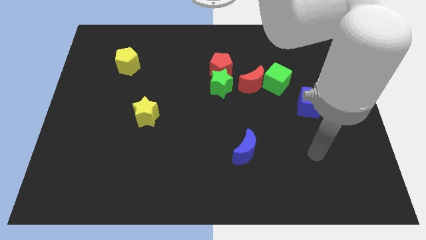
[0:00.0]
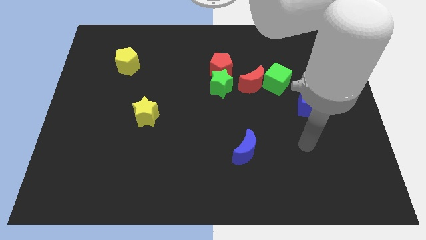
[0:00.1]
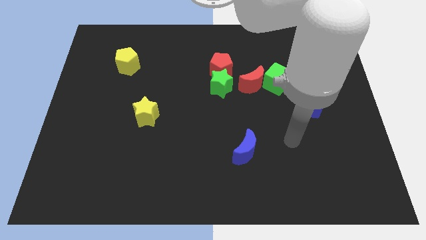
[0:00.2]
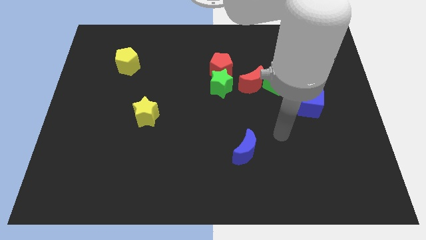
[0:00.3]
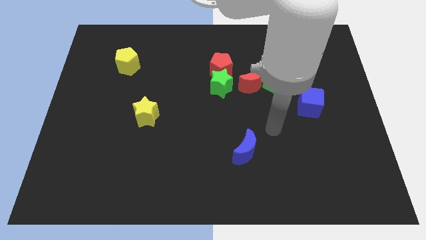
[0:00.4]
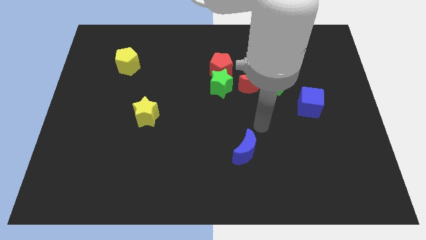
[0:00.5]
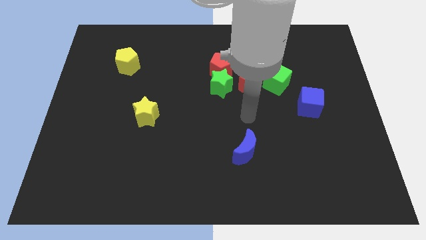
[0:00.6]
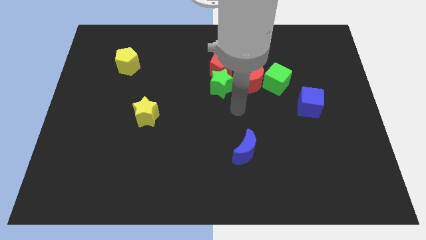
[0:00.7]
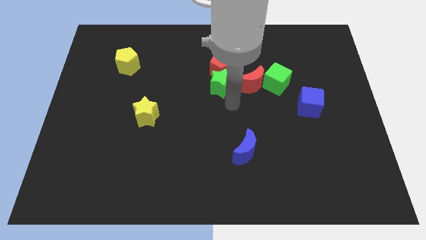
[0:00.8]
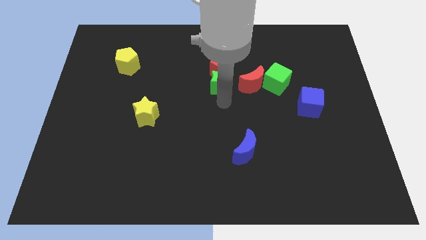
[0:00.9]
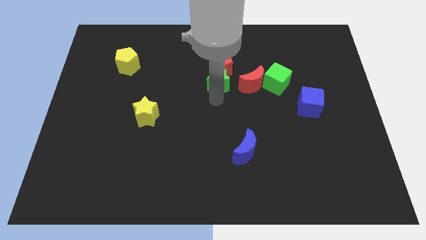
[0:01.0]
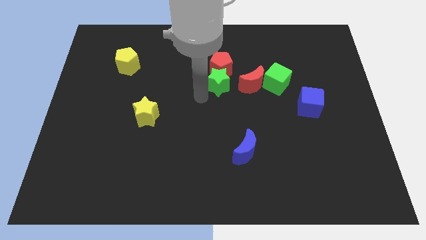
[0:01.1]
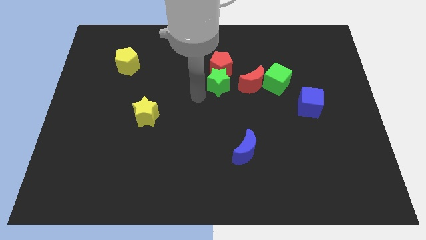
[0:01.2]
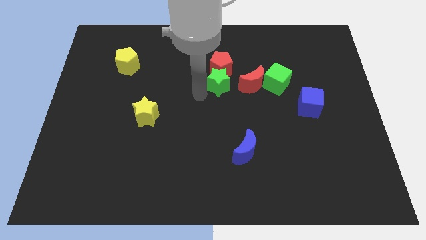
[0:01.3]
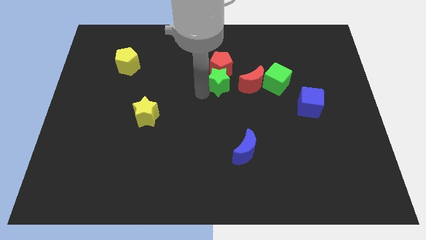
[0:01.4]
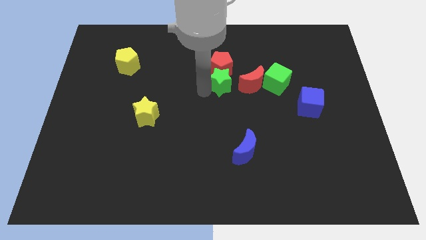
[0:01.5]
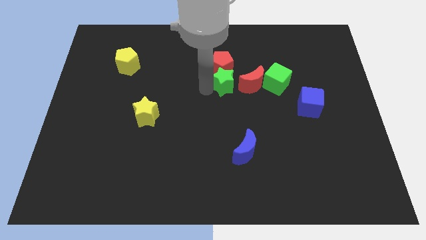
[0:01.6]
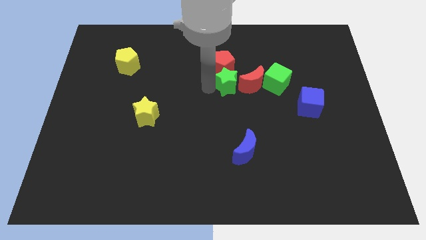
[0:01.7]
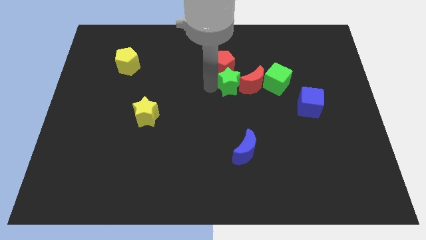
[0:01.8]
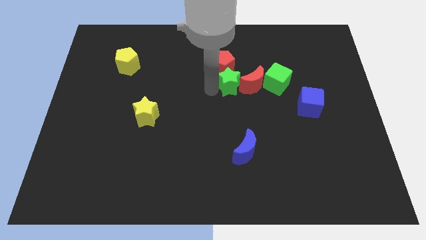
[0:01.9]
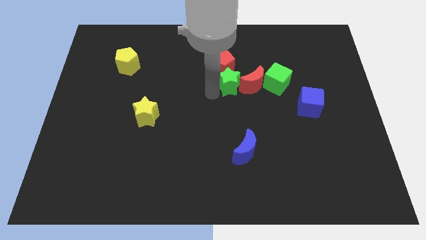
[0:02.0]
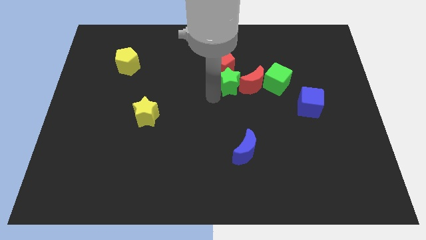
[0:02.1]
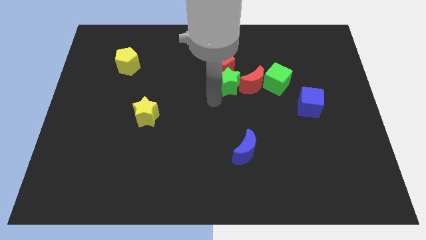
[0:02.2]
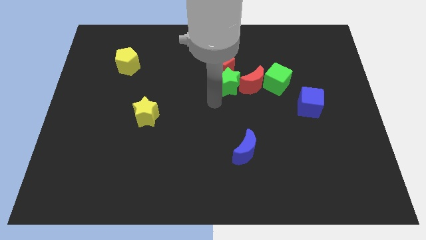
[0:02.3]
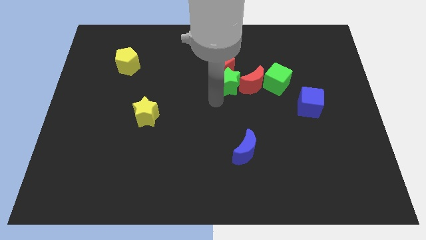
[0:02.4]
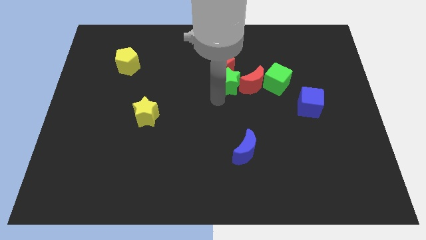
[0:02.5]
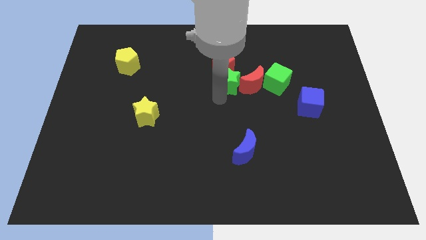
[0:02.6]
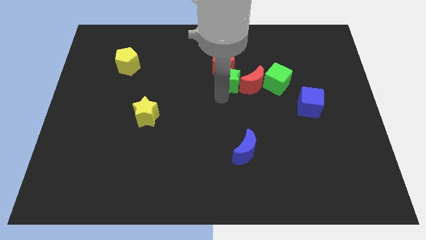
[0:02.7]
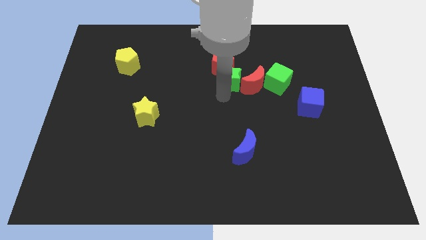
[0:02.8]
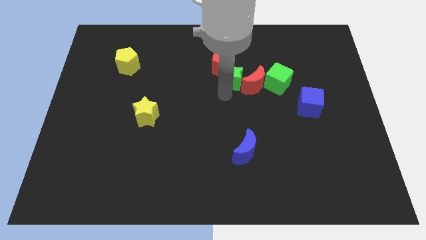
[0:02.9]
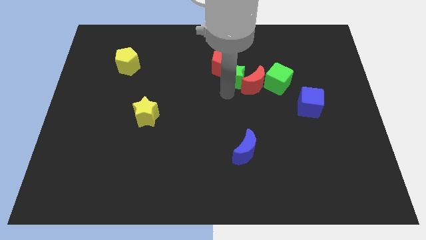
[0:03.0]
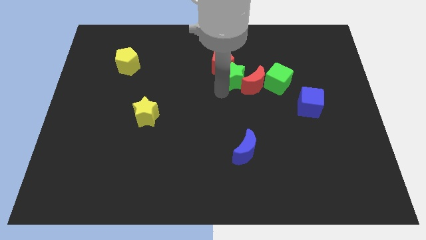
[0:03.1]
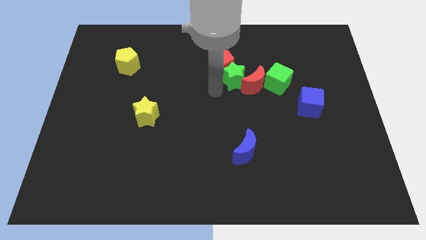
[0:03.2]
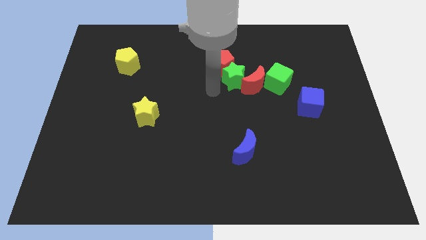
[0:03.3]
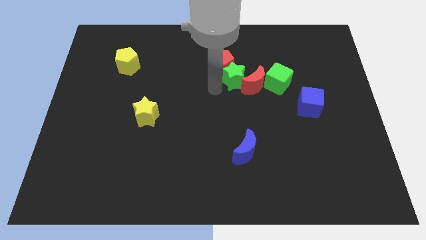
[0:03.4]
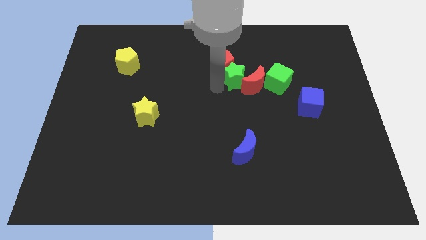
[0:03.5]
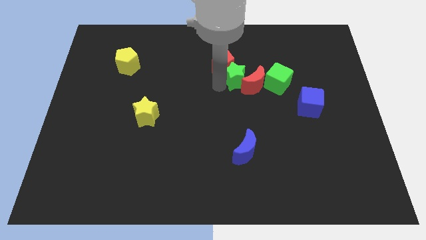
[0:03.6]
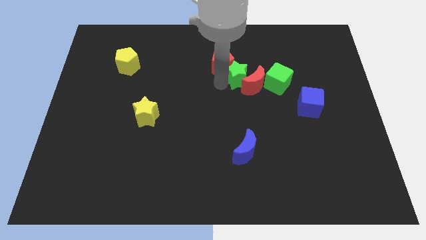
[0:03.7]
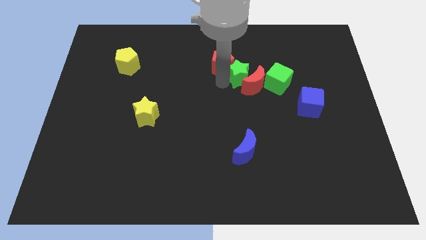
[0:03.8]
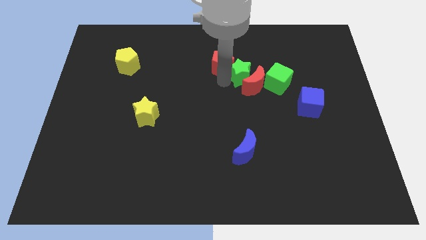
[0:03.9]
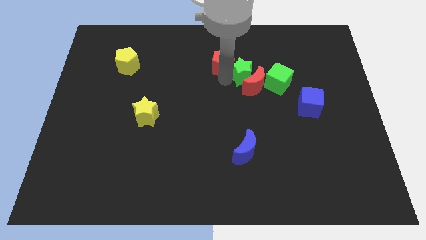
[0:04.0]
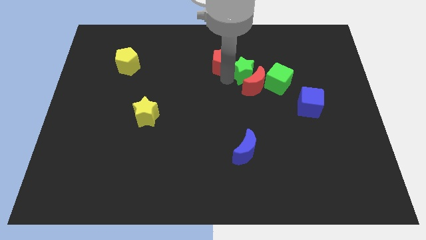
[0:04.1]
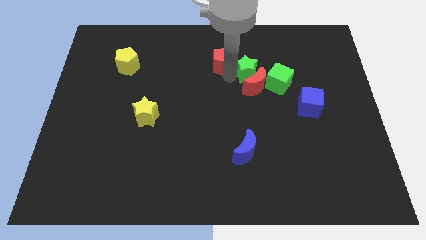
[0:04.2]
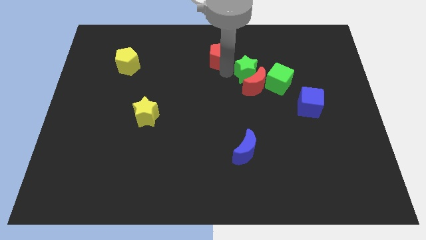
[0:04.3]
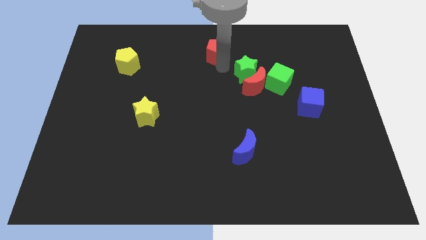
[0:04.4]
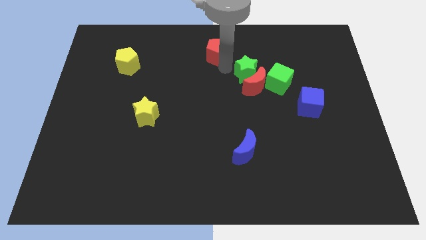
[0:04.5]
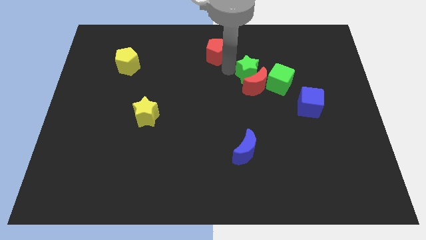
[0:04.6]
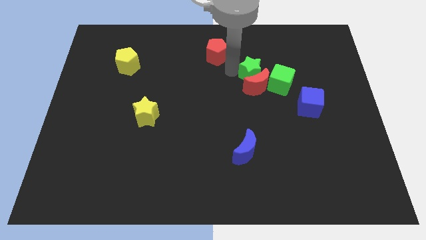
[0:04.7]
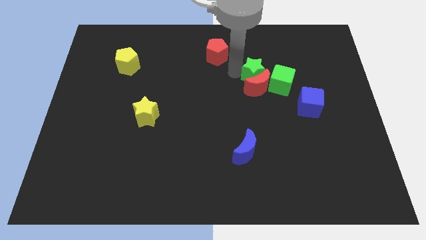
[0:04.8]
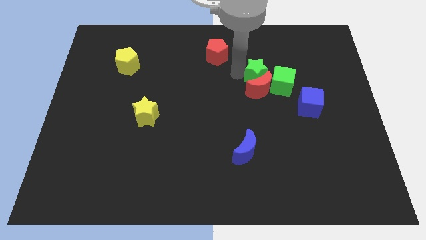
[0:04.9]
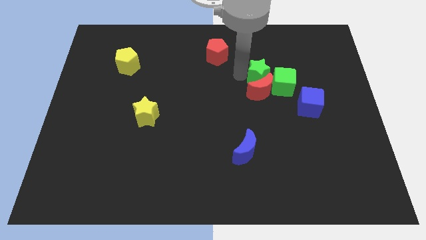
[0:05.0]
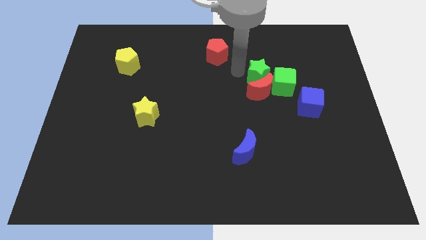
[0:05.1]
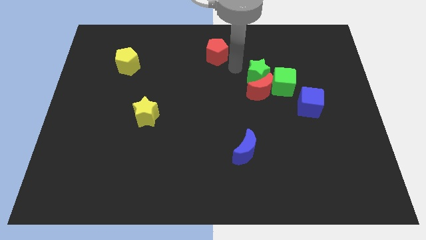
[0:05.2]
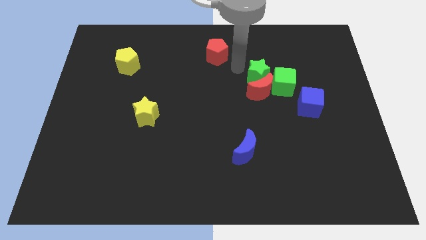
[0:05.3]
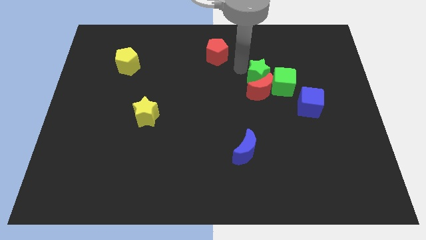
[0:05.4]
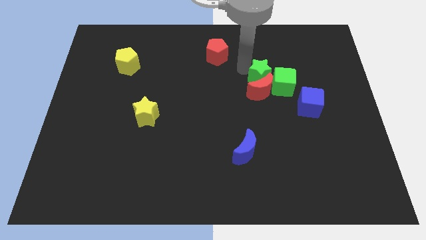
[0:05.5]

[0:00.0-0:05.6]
put the green star next to the green cube

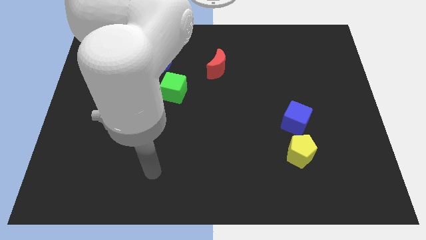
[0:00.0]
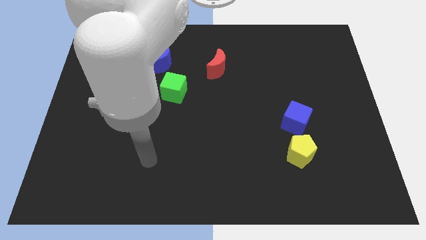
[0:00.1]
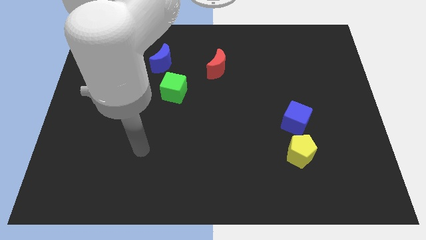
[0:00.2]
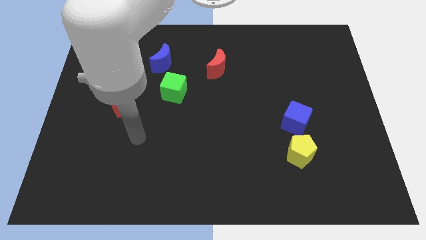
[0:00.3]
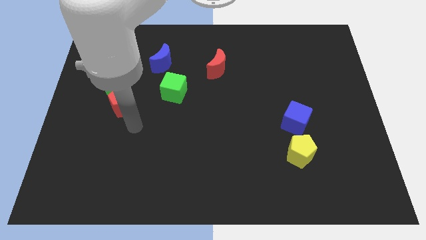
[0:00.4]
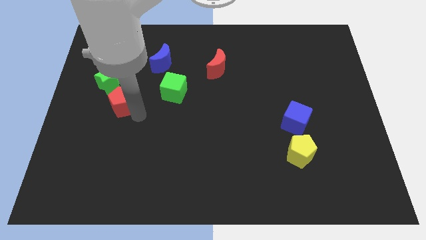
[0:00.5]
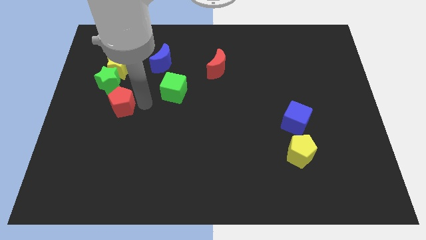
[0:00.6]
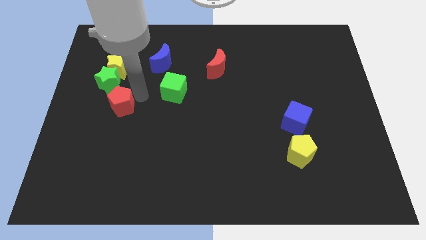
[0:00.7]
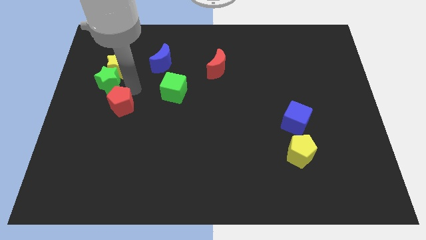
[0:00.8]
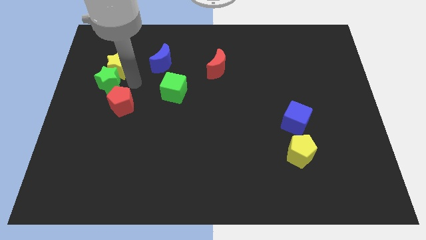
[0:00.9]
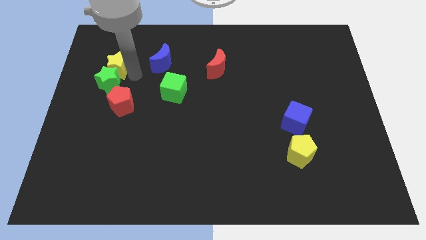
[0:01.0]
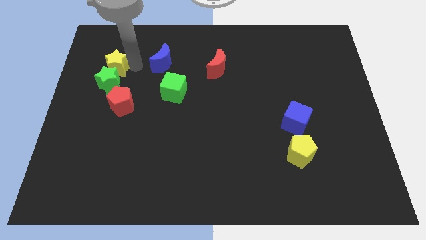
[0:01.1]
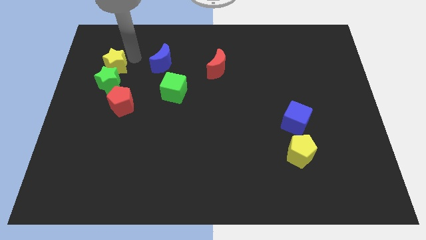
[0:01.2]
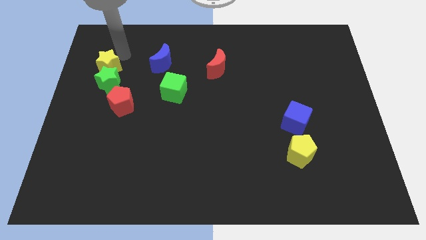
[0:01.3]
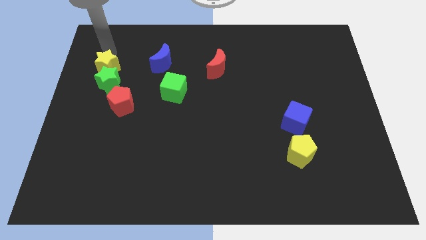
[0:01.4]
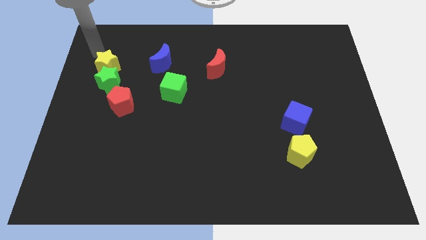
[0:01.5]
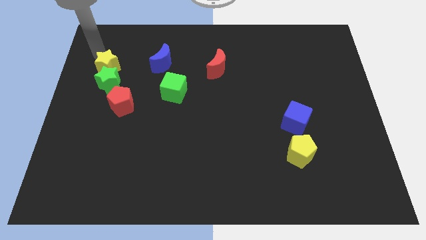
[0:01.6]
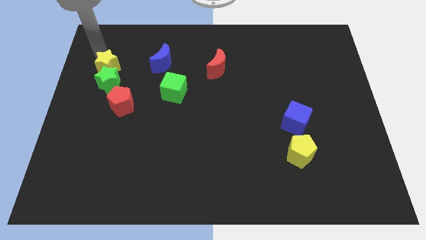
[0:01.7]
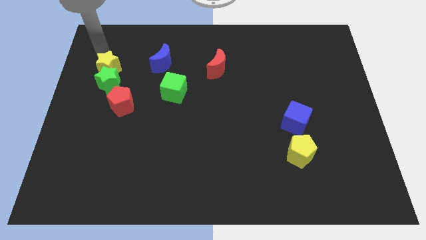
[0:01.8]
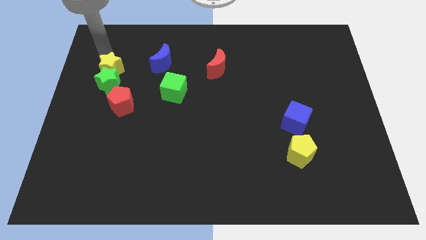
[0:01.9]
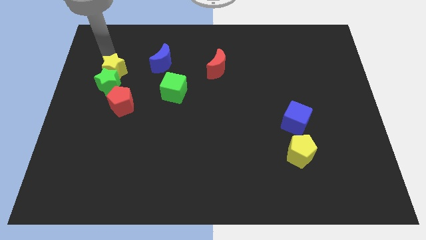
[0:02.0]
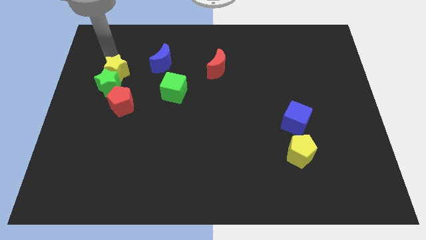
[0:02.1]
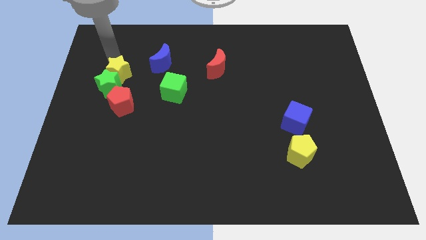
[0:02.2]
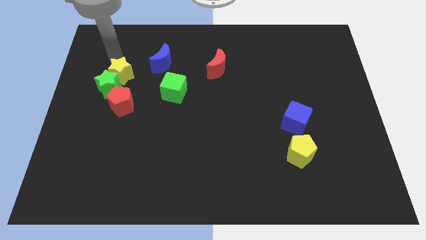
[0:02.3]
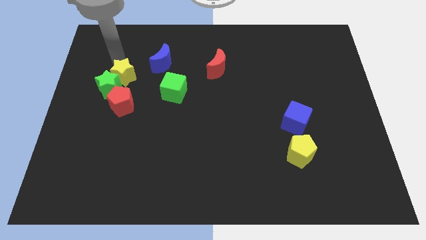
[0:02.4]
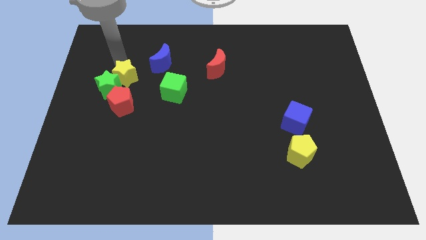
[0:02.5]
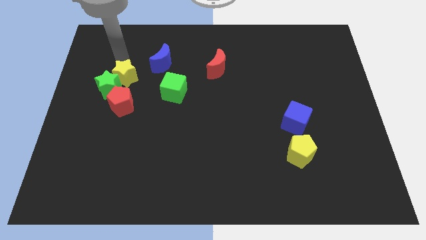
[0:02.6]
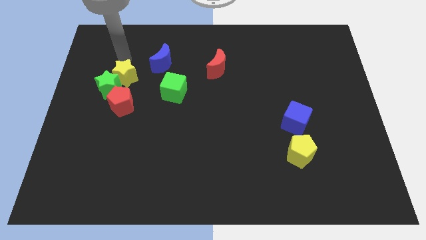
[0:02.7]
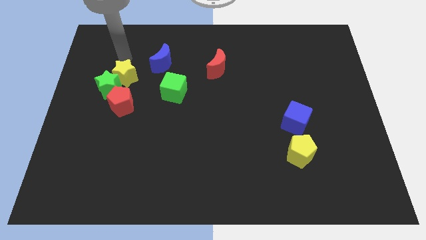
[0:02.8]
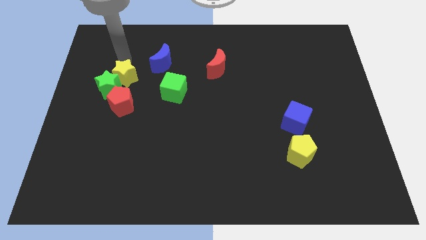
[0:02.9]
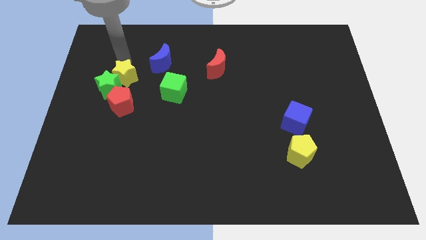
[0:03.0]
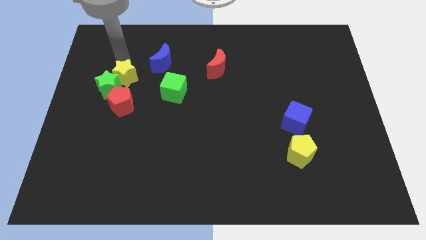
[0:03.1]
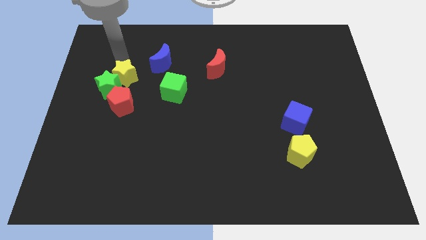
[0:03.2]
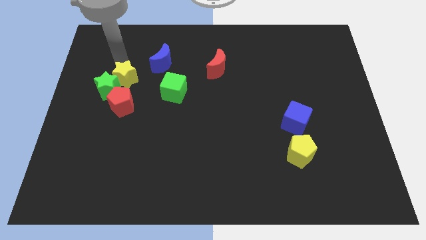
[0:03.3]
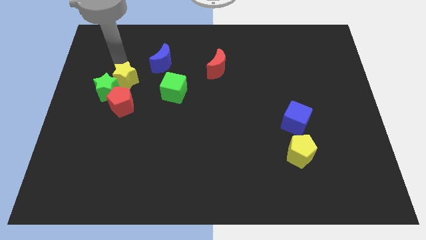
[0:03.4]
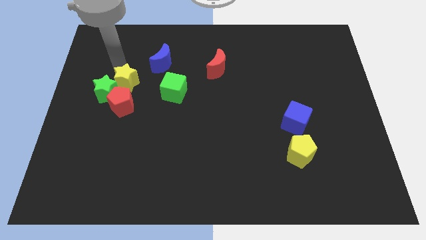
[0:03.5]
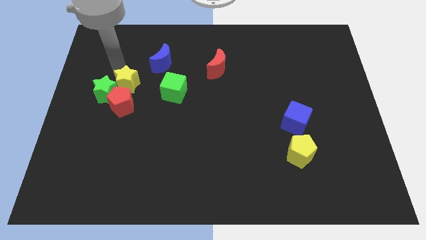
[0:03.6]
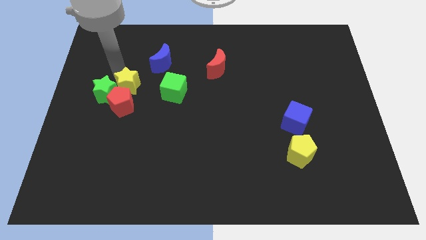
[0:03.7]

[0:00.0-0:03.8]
slide the yellow star towards the red pentagon
